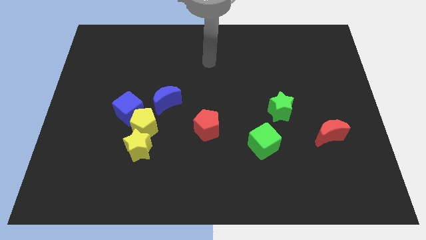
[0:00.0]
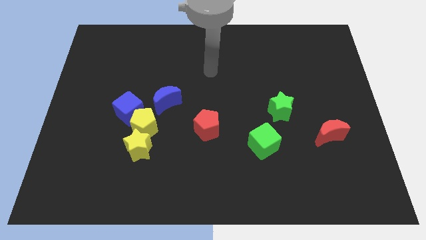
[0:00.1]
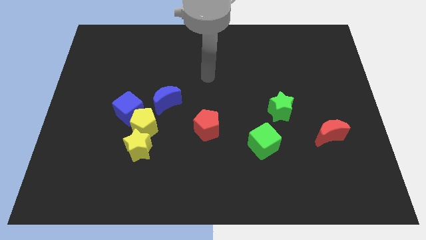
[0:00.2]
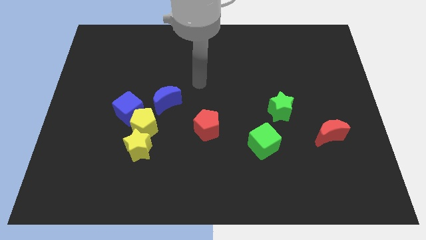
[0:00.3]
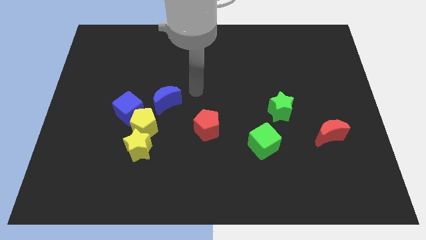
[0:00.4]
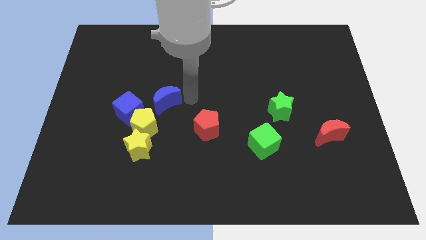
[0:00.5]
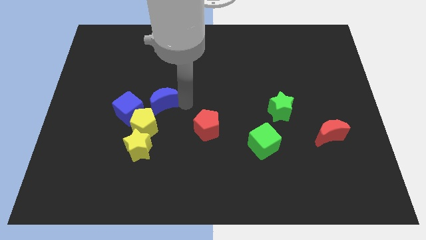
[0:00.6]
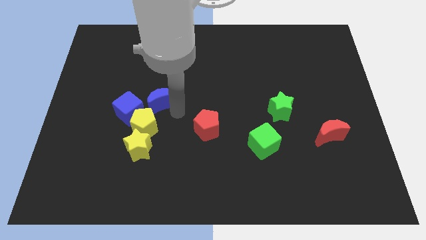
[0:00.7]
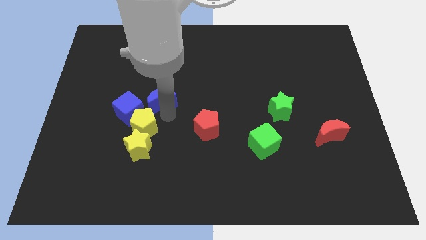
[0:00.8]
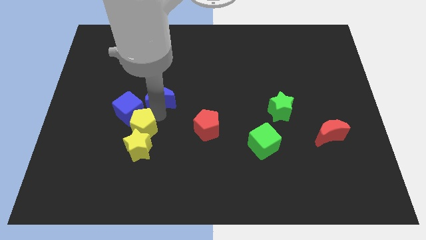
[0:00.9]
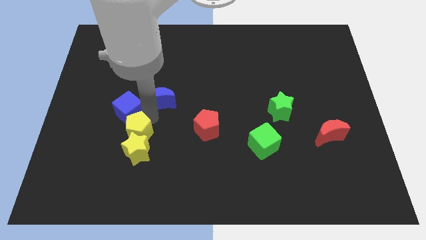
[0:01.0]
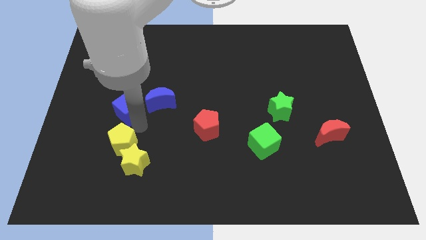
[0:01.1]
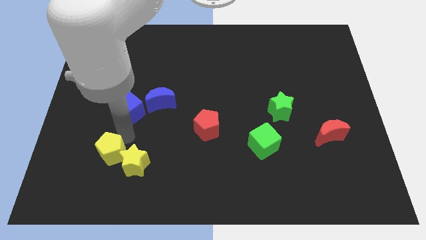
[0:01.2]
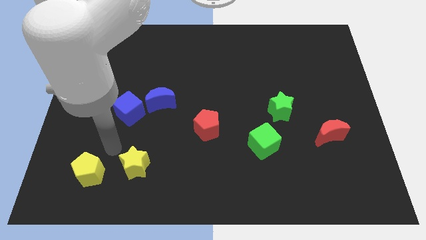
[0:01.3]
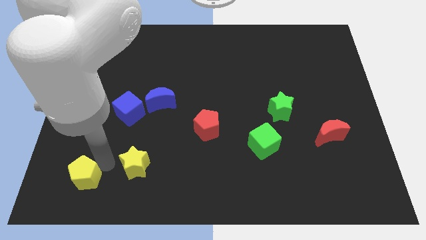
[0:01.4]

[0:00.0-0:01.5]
separate the yellow star from the yellow pentagon

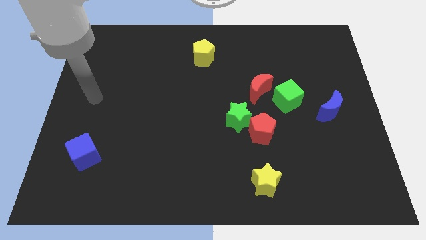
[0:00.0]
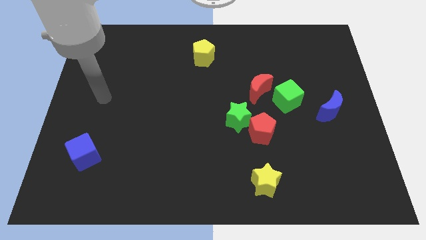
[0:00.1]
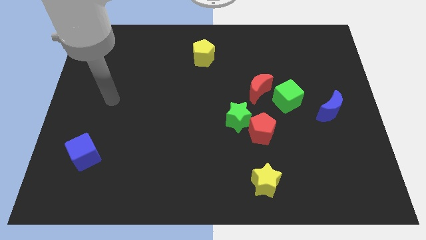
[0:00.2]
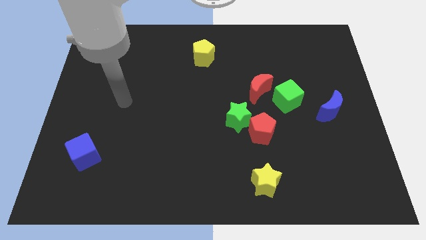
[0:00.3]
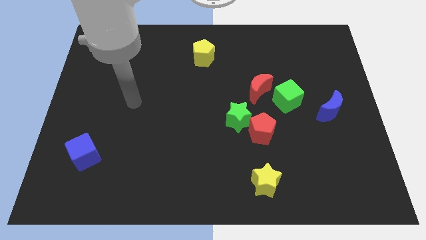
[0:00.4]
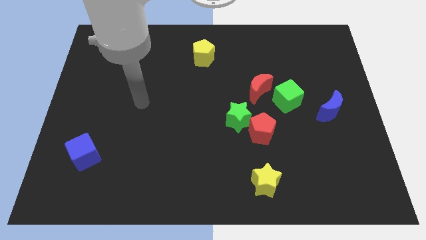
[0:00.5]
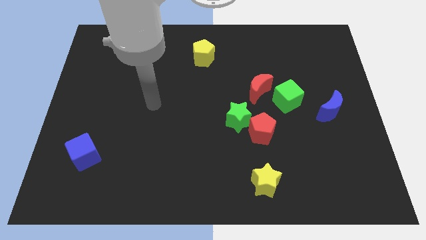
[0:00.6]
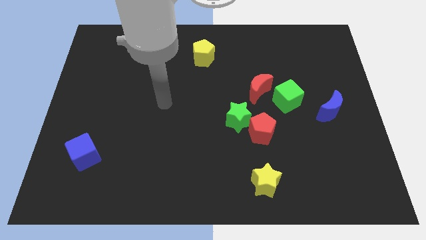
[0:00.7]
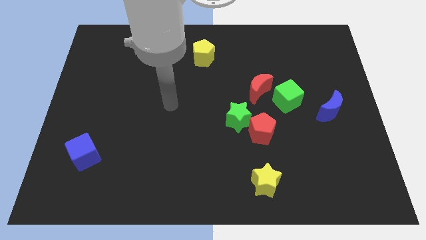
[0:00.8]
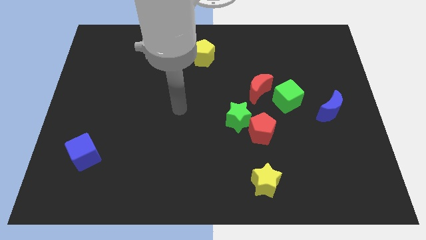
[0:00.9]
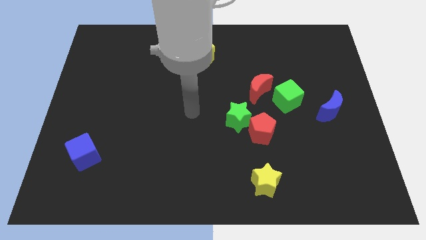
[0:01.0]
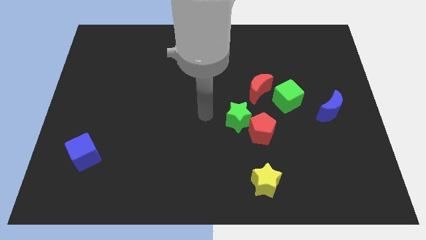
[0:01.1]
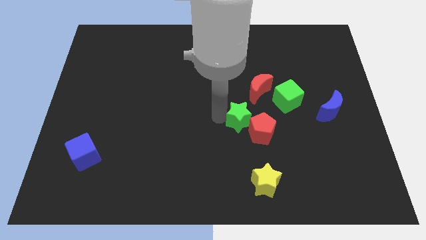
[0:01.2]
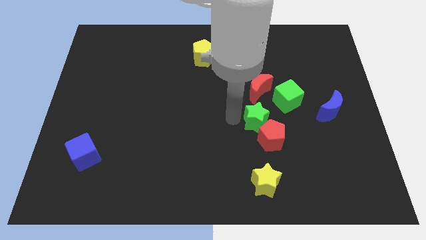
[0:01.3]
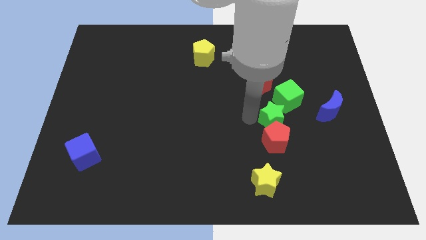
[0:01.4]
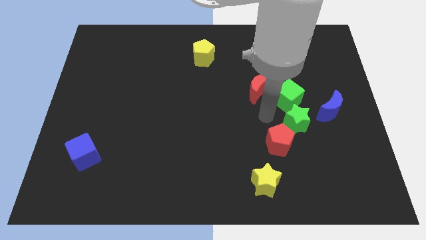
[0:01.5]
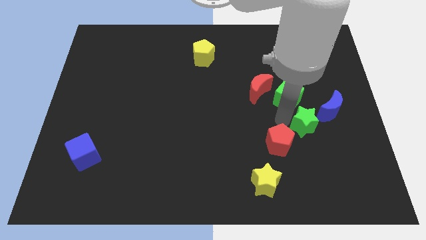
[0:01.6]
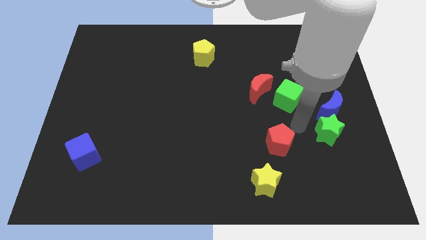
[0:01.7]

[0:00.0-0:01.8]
move the red pentagon away from the green star

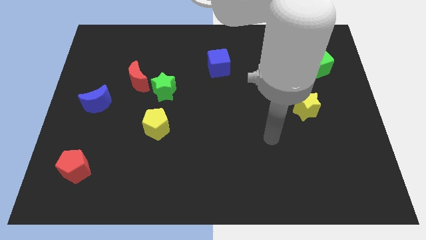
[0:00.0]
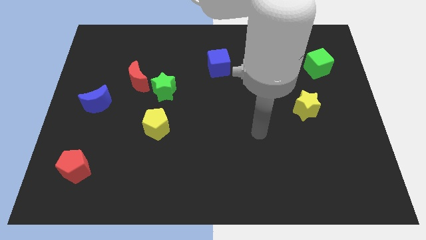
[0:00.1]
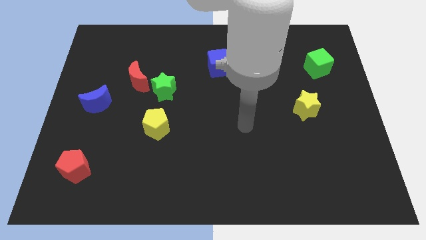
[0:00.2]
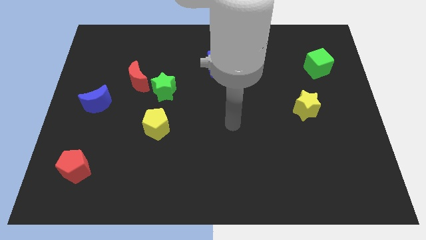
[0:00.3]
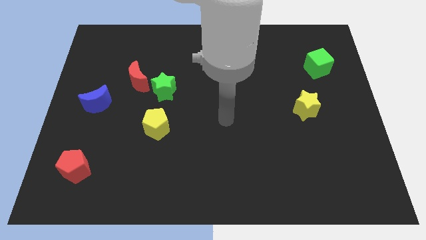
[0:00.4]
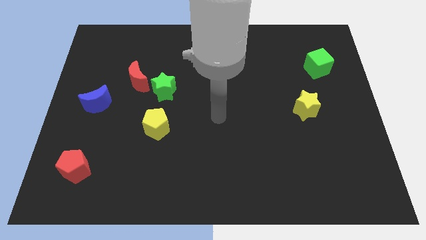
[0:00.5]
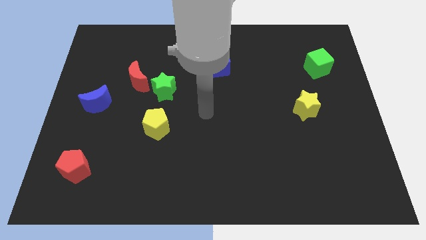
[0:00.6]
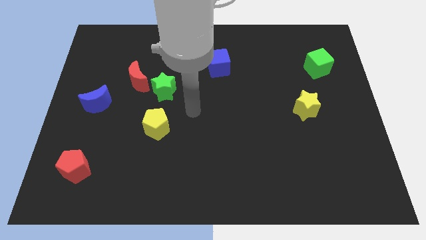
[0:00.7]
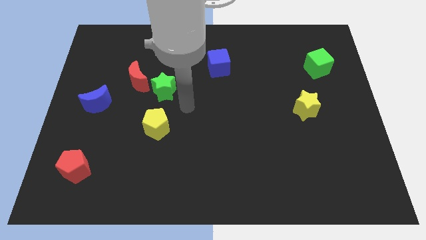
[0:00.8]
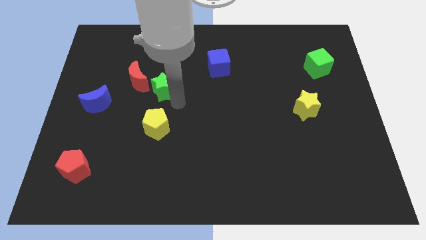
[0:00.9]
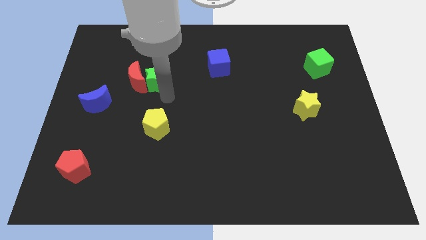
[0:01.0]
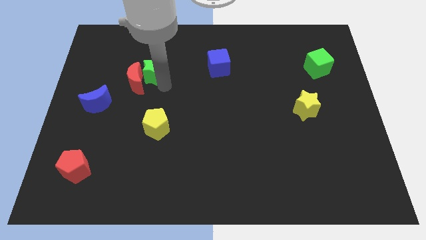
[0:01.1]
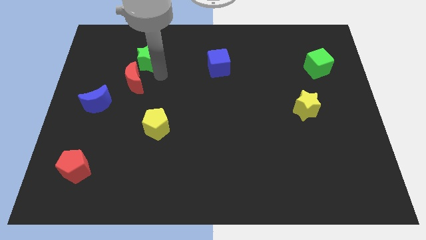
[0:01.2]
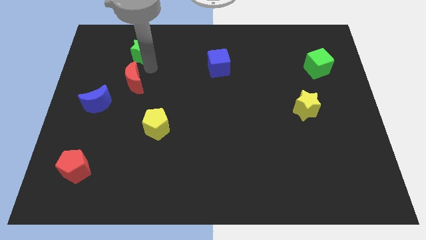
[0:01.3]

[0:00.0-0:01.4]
move the red moon away from the green star

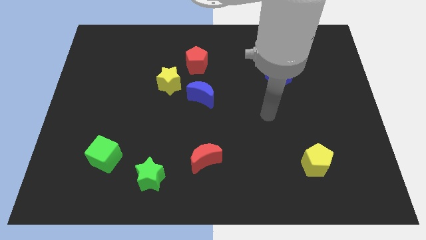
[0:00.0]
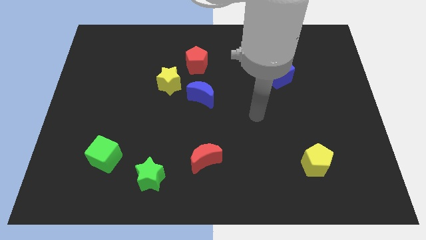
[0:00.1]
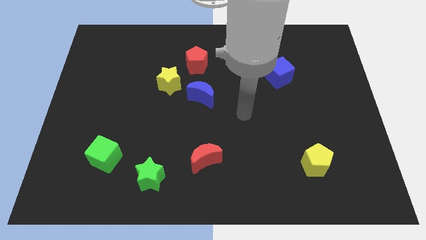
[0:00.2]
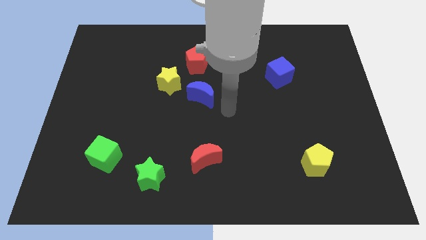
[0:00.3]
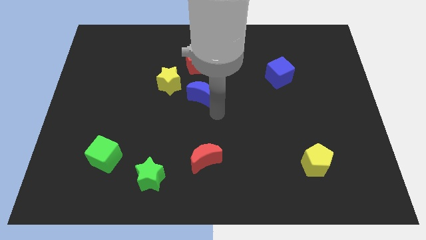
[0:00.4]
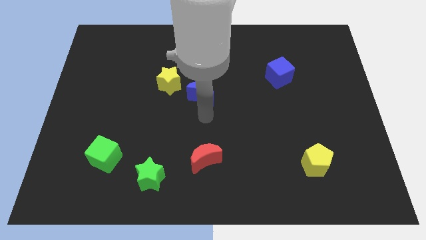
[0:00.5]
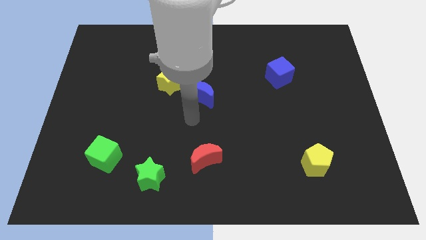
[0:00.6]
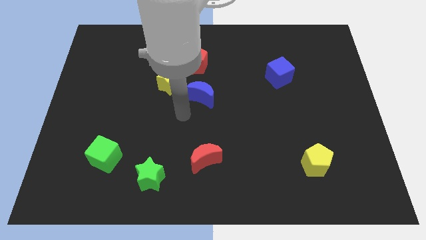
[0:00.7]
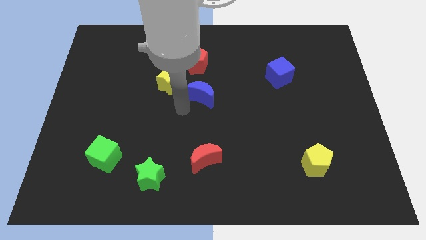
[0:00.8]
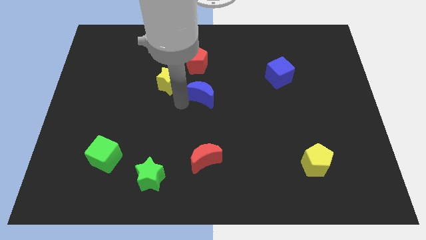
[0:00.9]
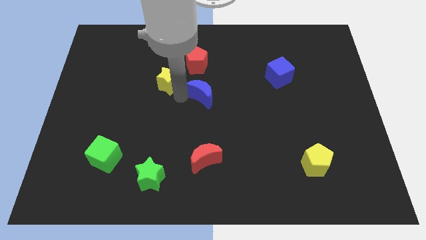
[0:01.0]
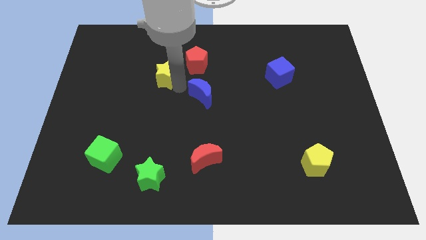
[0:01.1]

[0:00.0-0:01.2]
move the blue moon away from the yellow star

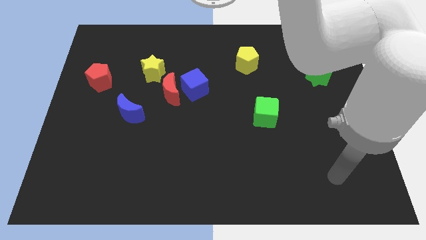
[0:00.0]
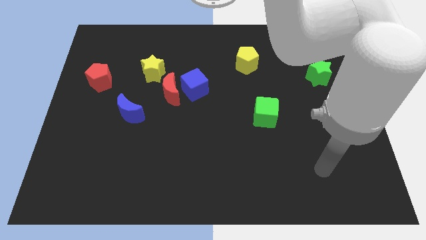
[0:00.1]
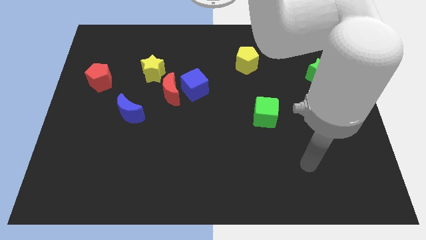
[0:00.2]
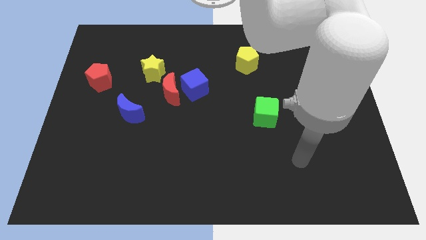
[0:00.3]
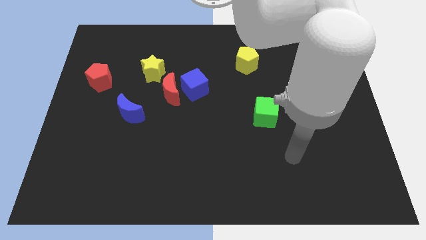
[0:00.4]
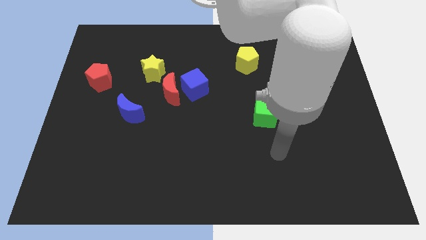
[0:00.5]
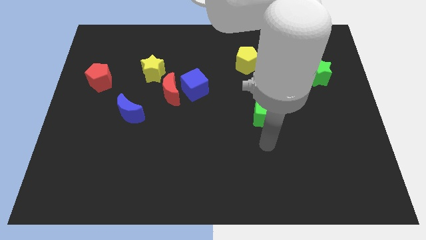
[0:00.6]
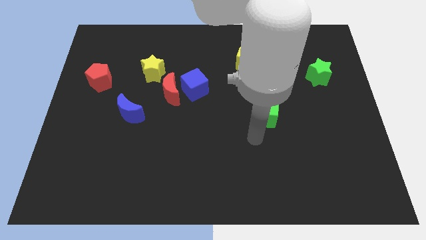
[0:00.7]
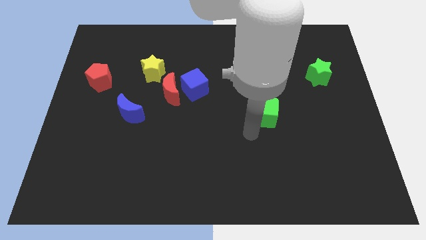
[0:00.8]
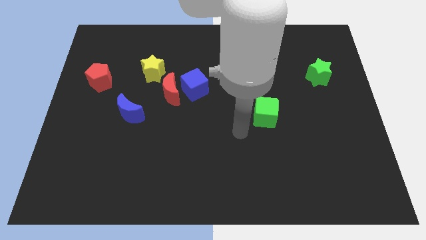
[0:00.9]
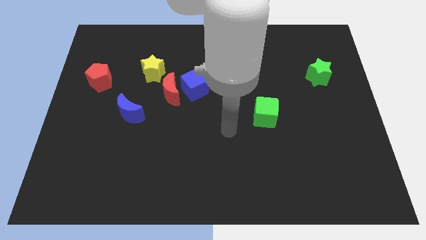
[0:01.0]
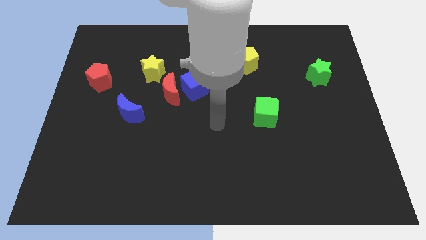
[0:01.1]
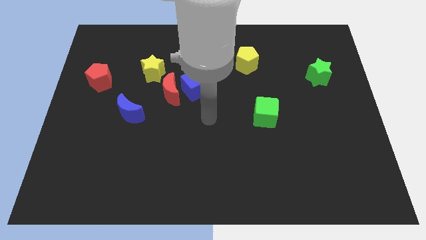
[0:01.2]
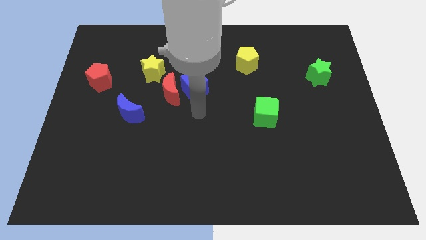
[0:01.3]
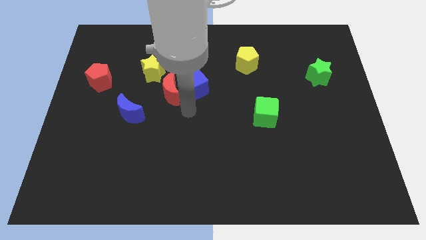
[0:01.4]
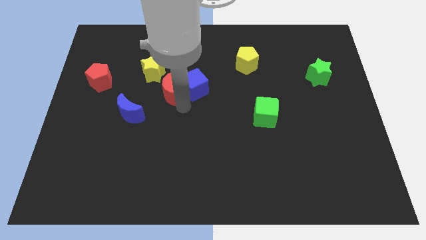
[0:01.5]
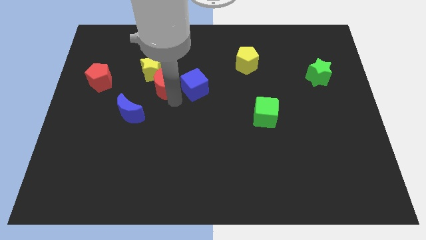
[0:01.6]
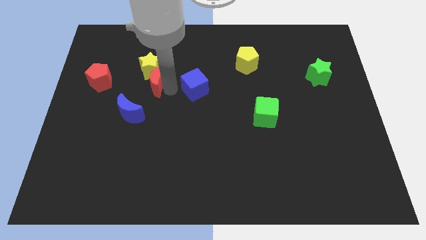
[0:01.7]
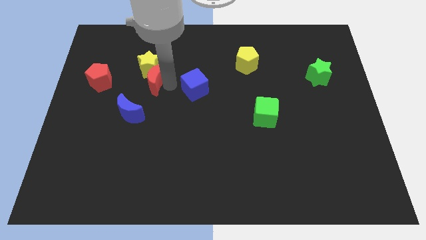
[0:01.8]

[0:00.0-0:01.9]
move the blue cube away from the red moon

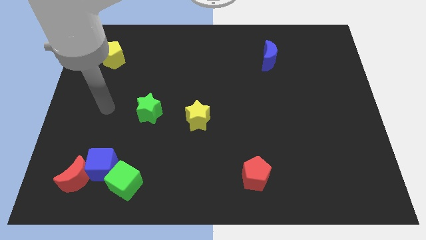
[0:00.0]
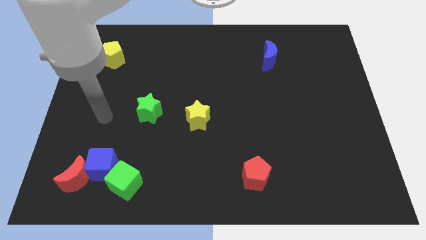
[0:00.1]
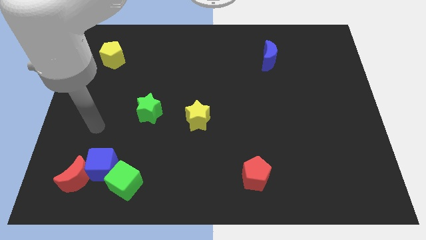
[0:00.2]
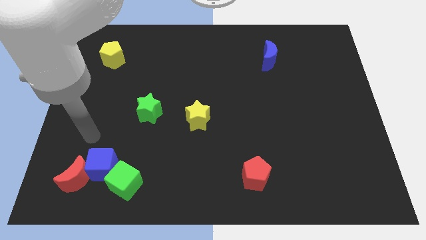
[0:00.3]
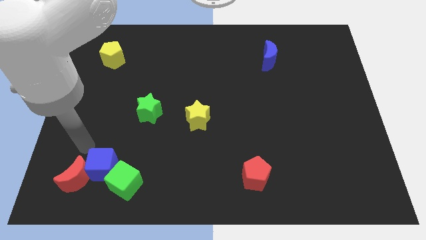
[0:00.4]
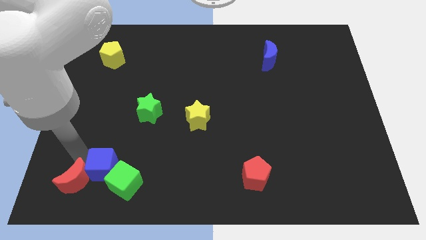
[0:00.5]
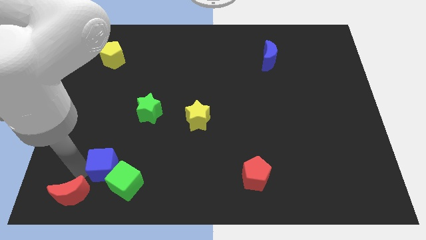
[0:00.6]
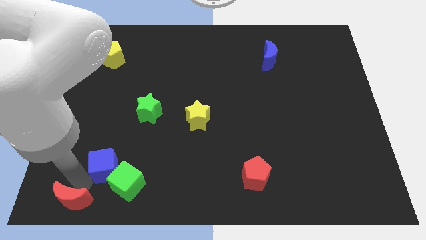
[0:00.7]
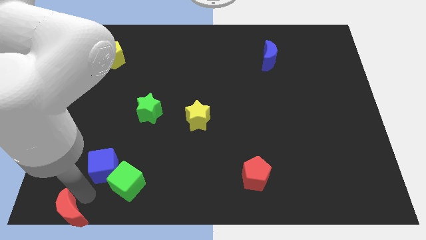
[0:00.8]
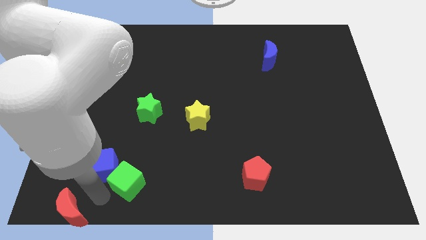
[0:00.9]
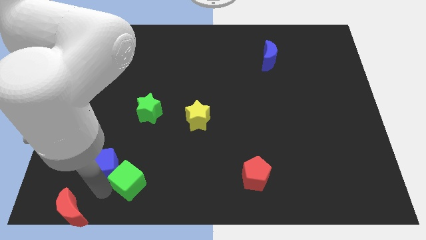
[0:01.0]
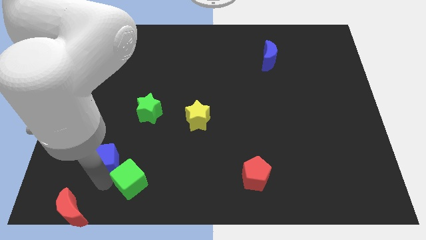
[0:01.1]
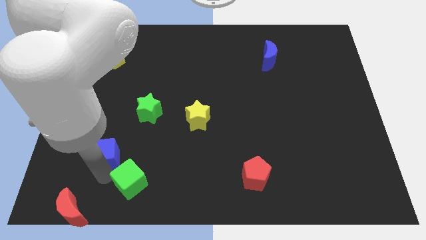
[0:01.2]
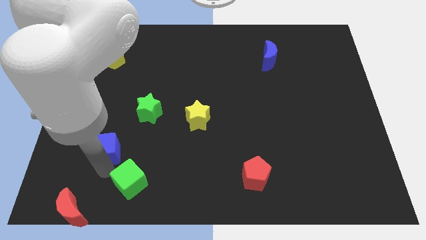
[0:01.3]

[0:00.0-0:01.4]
pull the blue cube apart from the red moon and green cube
